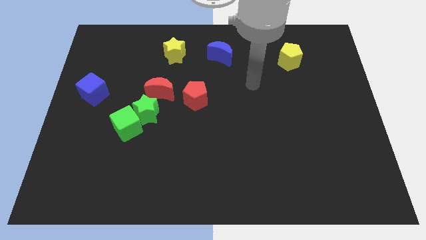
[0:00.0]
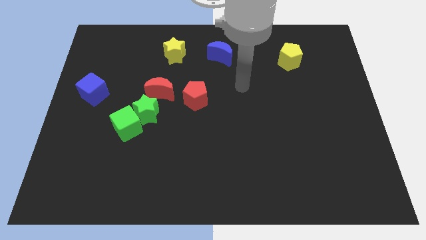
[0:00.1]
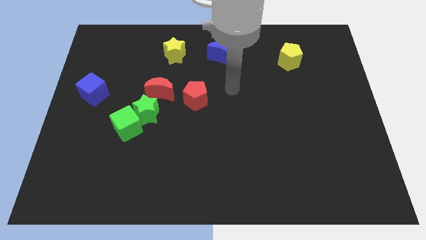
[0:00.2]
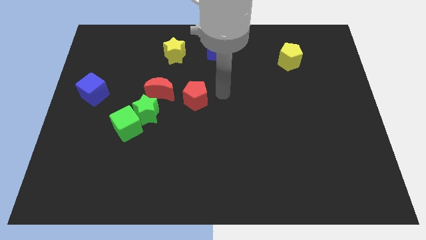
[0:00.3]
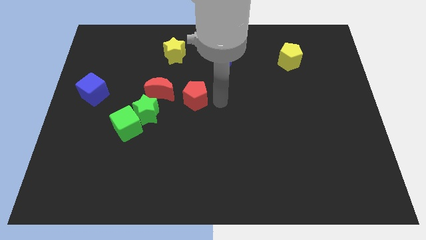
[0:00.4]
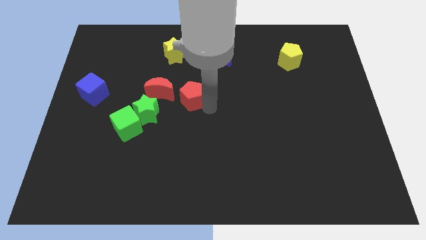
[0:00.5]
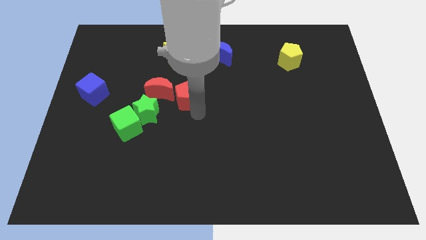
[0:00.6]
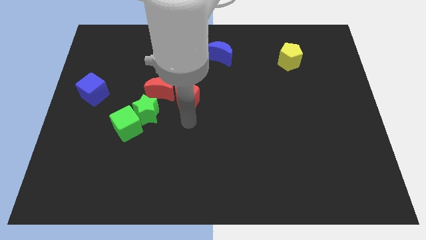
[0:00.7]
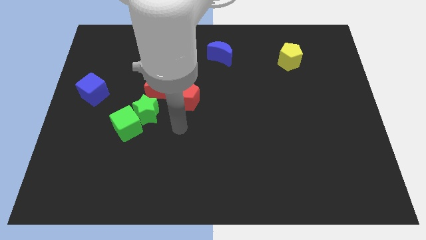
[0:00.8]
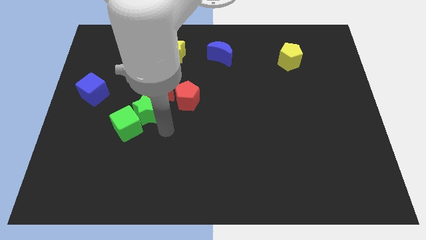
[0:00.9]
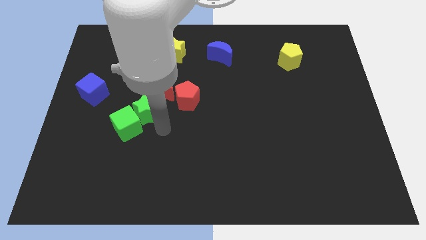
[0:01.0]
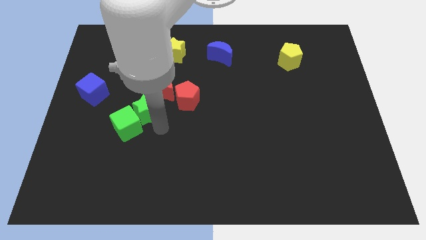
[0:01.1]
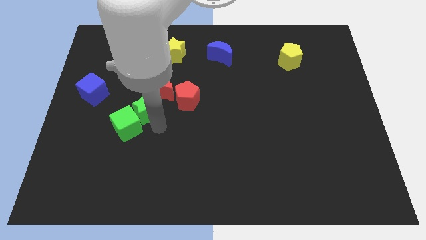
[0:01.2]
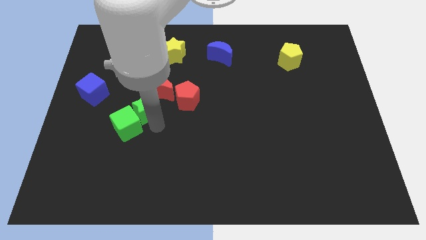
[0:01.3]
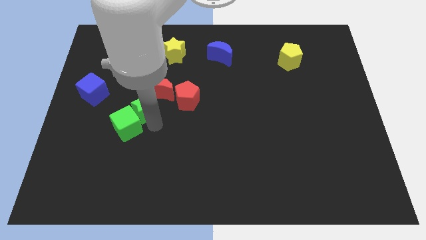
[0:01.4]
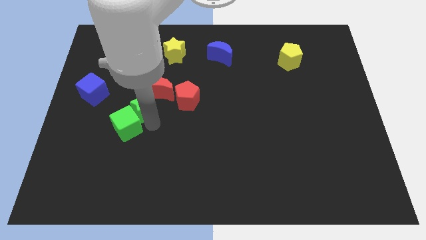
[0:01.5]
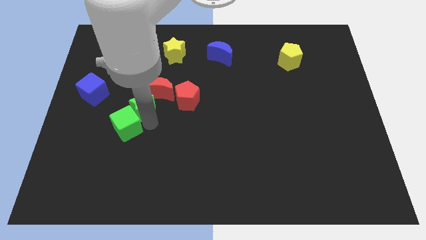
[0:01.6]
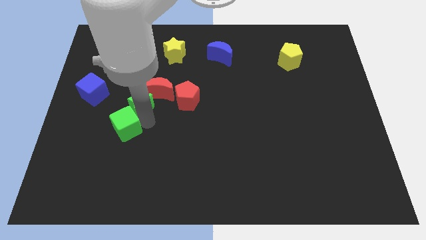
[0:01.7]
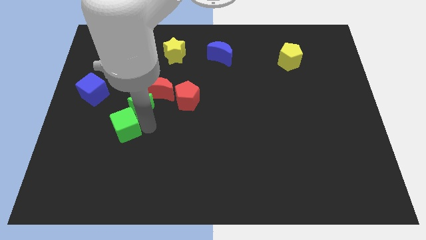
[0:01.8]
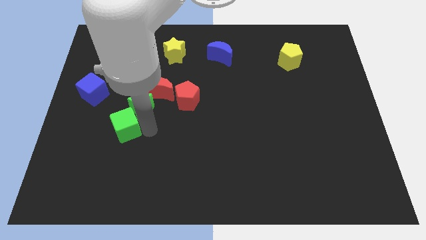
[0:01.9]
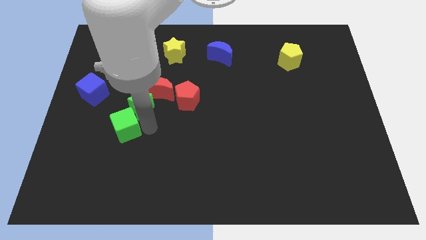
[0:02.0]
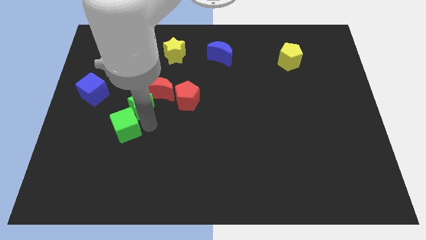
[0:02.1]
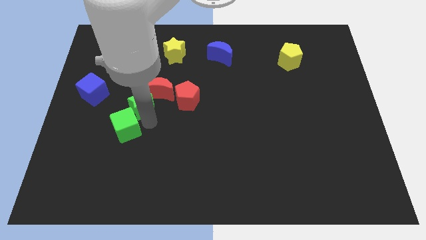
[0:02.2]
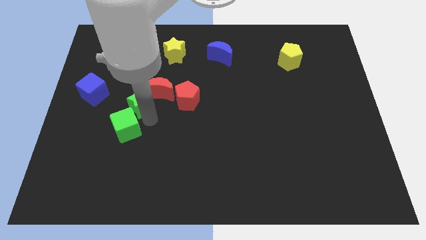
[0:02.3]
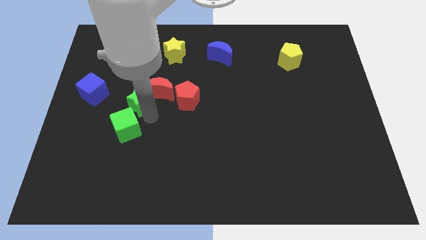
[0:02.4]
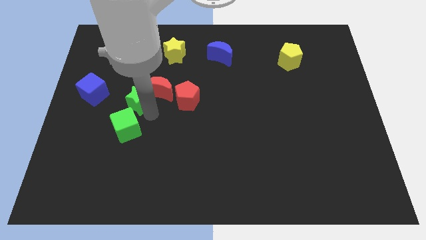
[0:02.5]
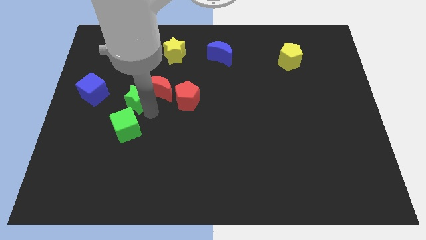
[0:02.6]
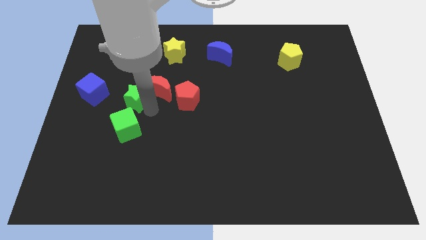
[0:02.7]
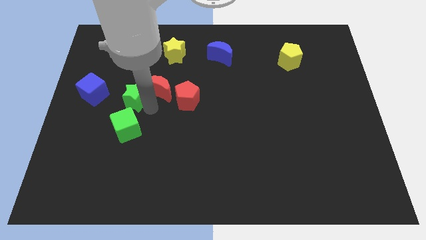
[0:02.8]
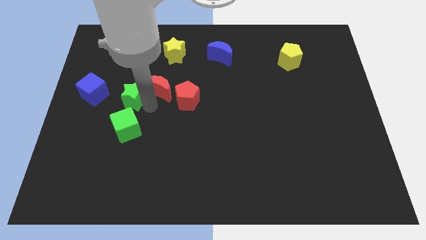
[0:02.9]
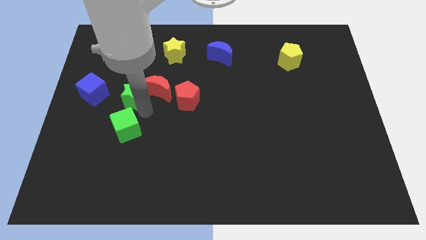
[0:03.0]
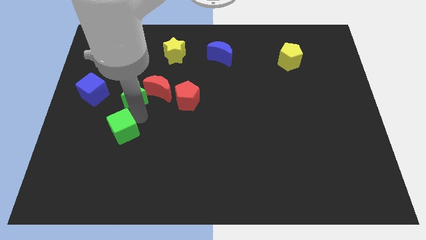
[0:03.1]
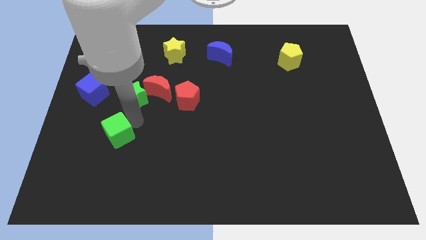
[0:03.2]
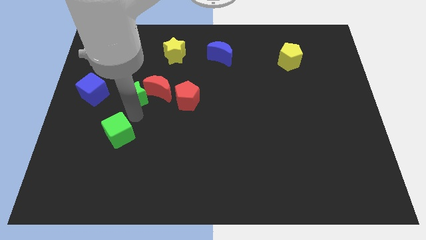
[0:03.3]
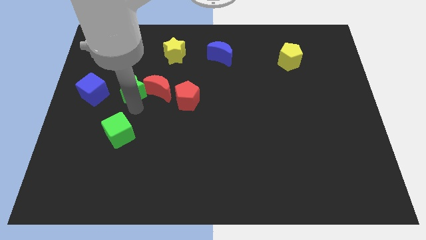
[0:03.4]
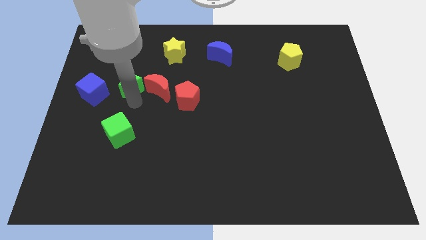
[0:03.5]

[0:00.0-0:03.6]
push the green star a little bit upwards

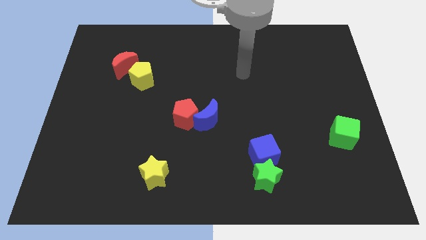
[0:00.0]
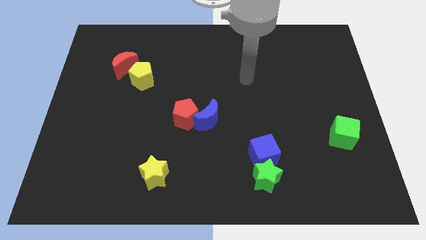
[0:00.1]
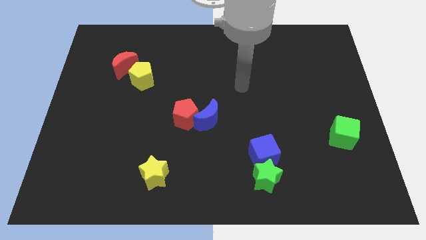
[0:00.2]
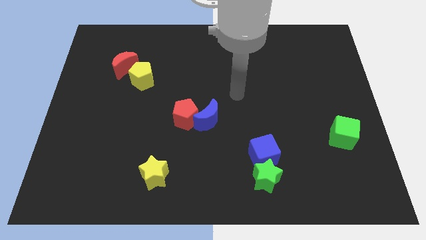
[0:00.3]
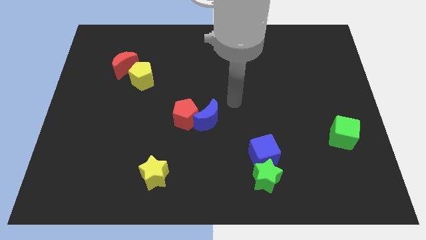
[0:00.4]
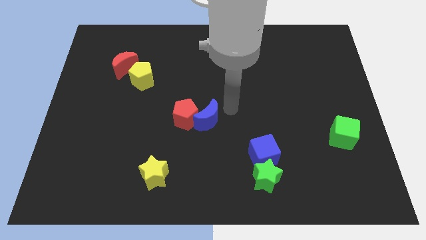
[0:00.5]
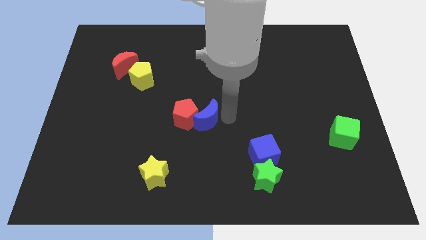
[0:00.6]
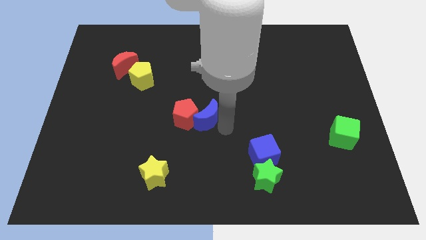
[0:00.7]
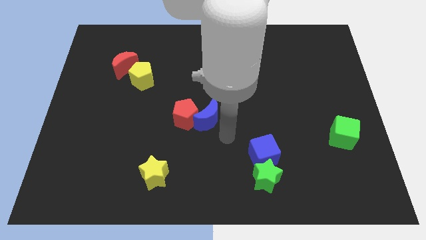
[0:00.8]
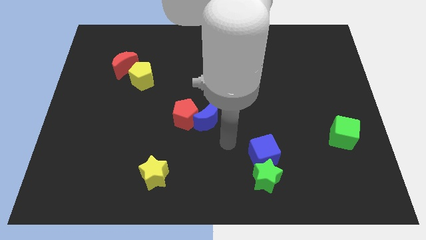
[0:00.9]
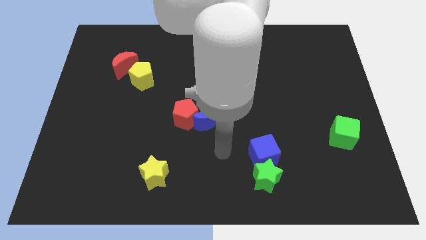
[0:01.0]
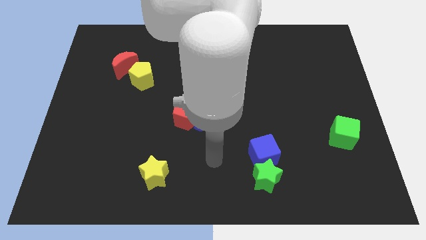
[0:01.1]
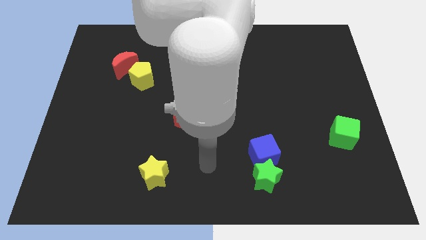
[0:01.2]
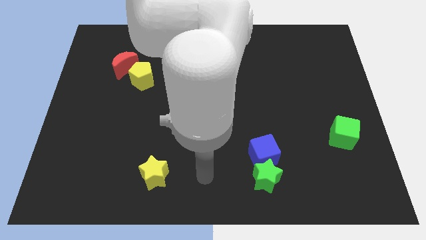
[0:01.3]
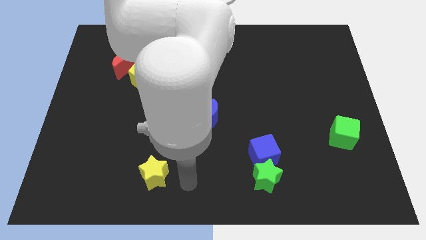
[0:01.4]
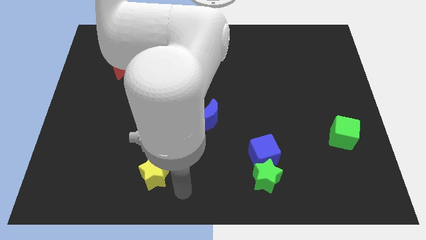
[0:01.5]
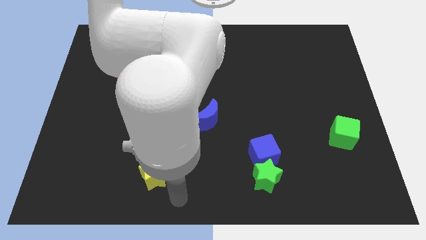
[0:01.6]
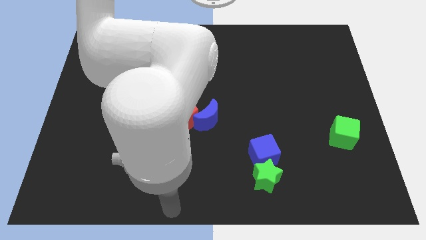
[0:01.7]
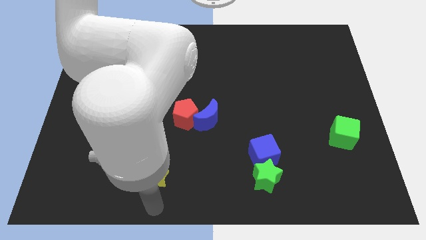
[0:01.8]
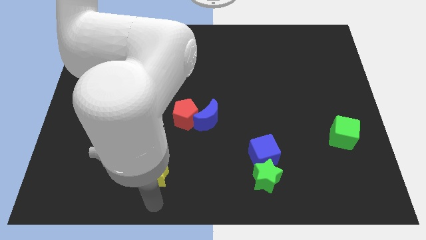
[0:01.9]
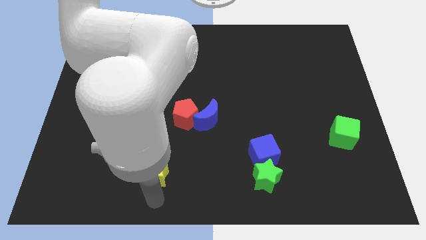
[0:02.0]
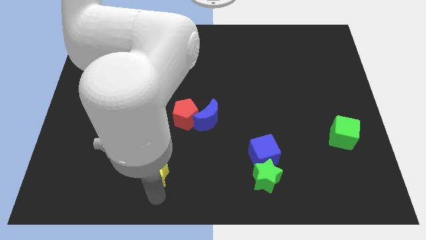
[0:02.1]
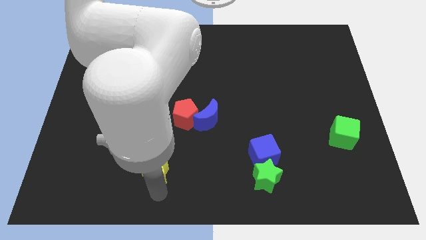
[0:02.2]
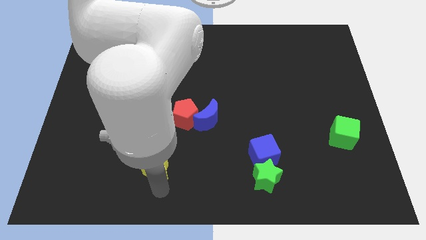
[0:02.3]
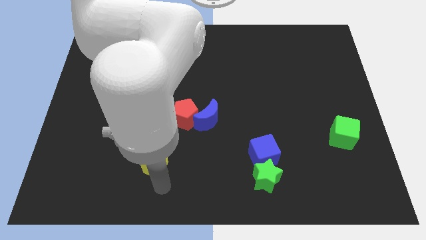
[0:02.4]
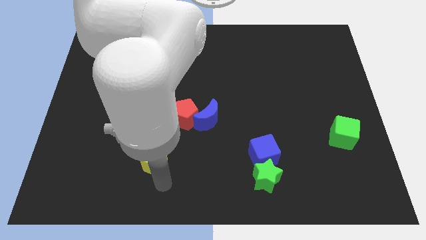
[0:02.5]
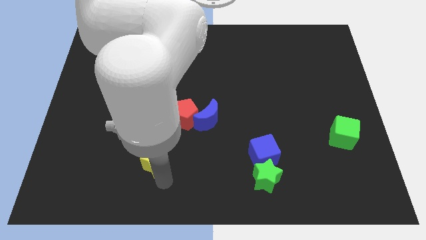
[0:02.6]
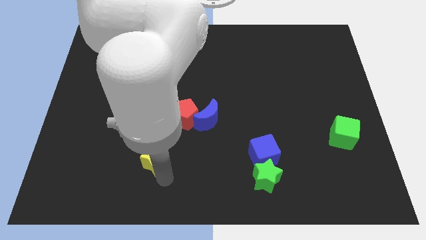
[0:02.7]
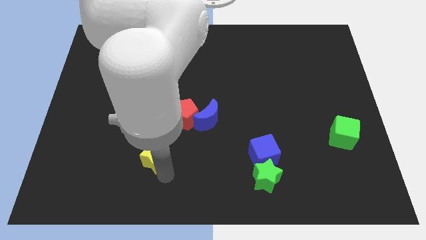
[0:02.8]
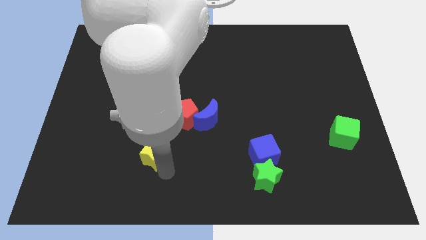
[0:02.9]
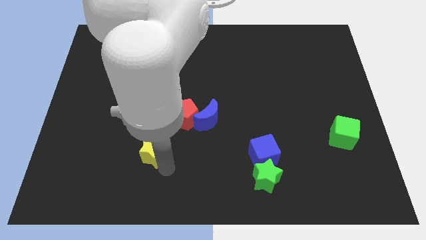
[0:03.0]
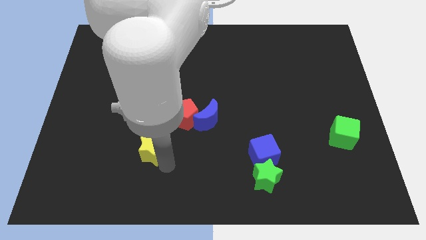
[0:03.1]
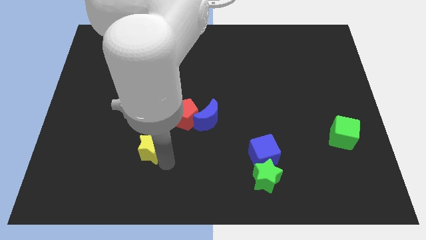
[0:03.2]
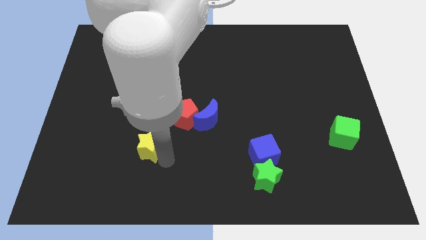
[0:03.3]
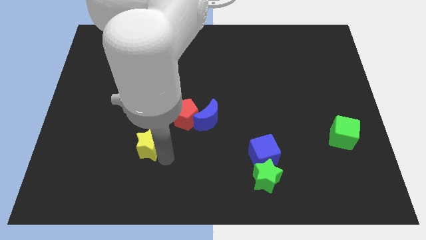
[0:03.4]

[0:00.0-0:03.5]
move the yellow star up slightly

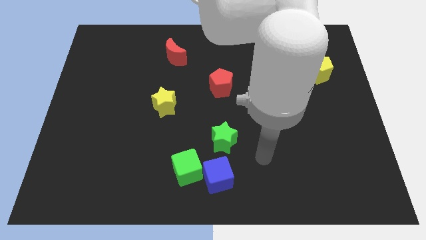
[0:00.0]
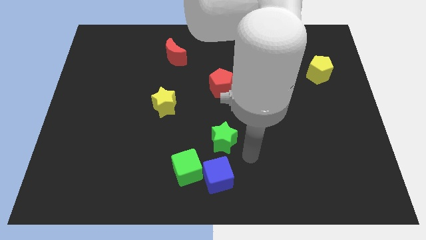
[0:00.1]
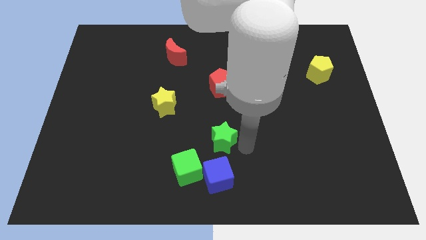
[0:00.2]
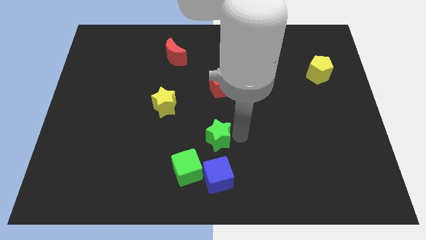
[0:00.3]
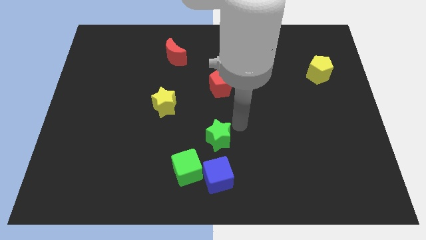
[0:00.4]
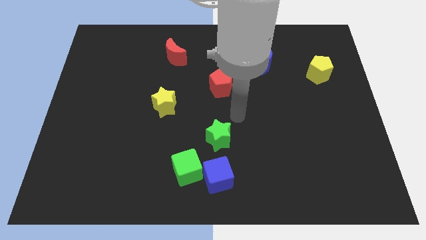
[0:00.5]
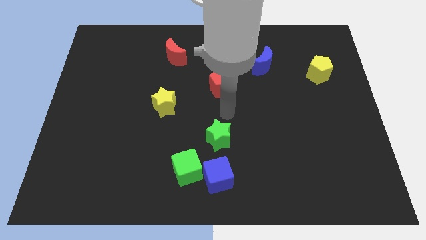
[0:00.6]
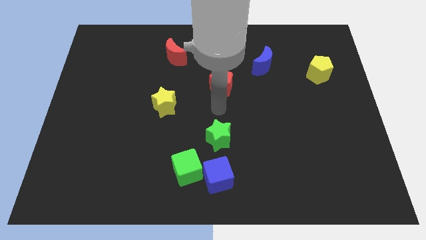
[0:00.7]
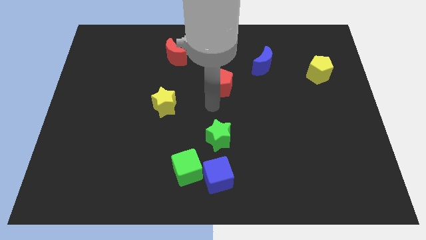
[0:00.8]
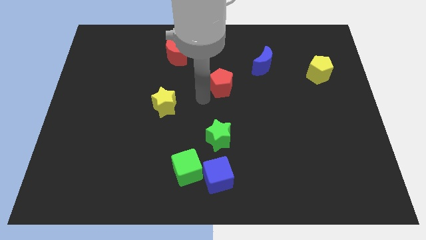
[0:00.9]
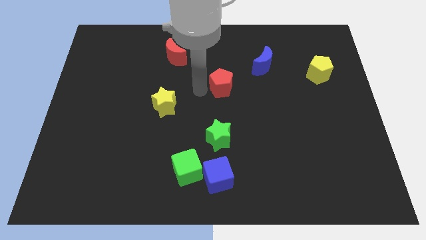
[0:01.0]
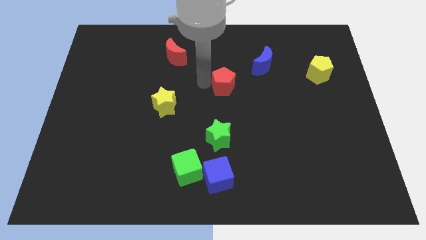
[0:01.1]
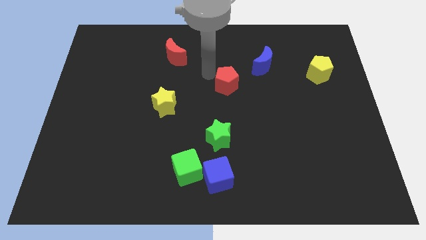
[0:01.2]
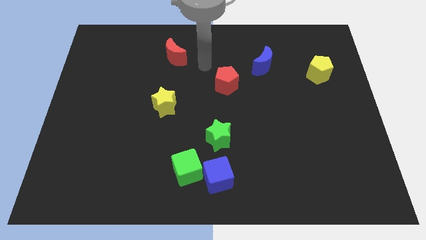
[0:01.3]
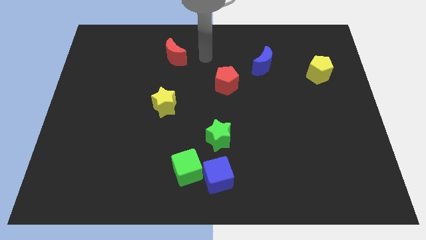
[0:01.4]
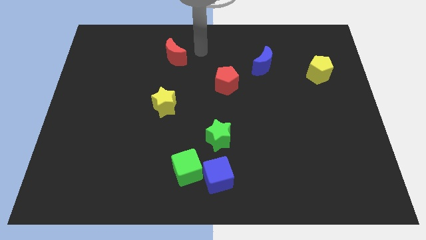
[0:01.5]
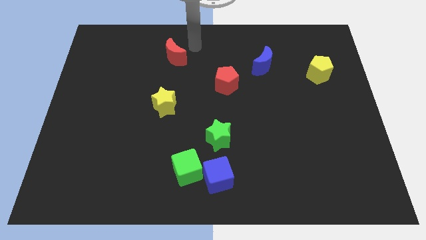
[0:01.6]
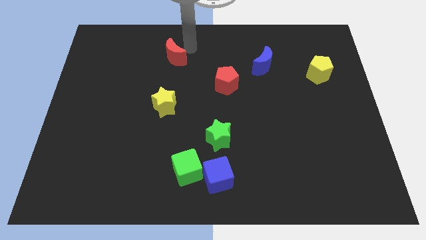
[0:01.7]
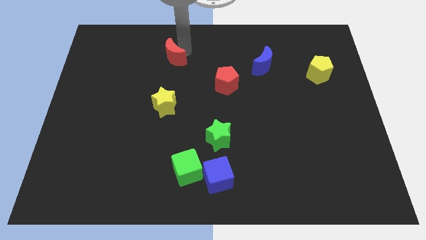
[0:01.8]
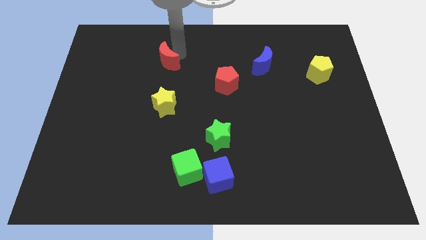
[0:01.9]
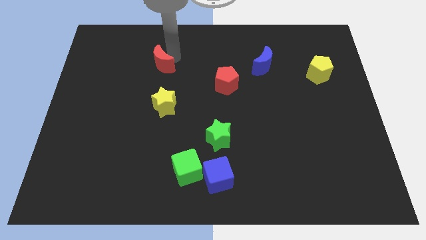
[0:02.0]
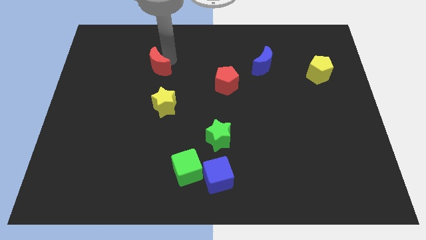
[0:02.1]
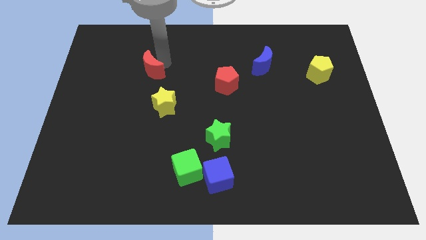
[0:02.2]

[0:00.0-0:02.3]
slightly push the red moon down and to the left
